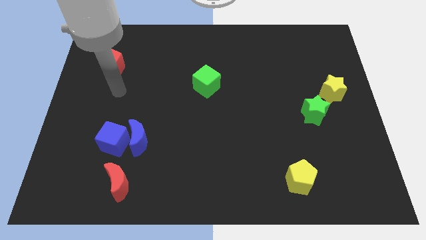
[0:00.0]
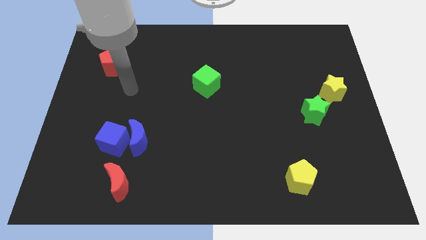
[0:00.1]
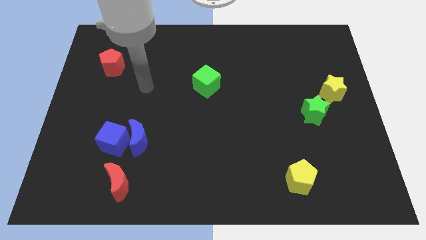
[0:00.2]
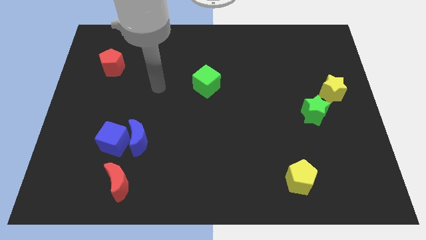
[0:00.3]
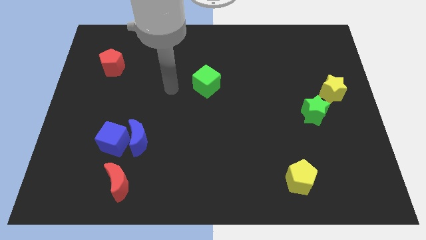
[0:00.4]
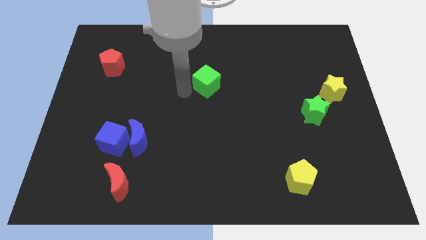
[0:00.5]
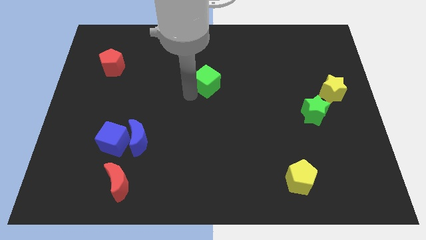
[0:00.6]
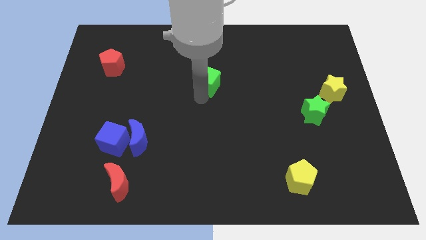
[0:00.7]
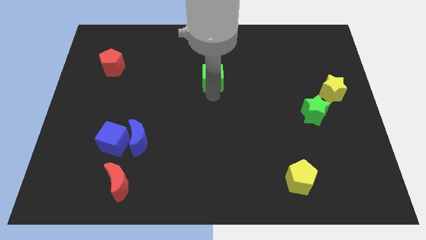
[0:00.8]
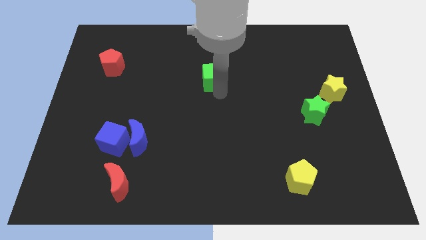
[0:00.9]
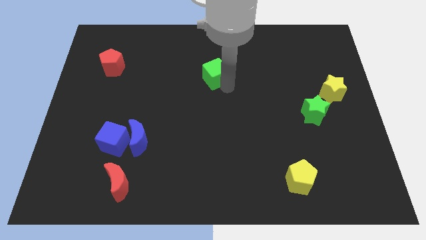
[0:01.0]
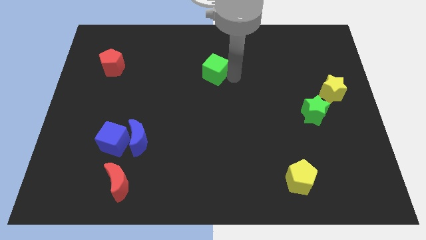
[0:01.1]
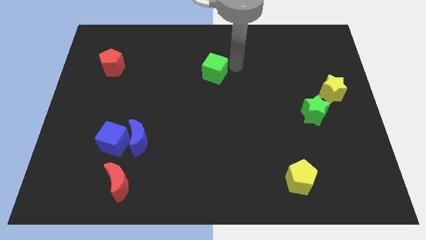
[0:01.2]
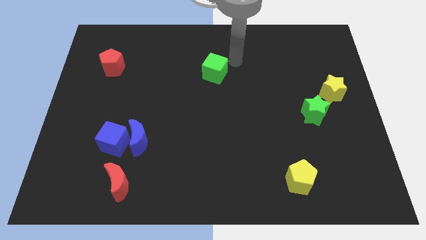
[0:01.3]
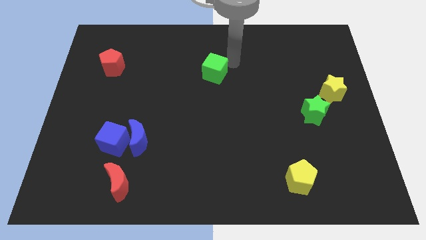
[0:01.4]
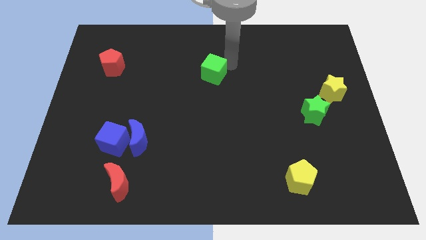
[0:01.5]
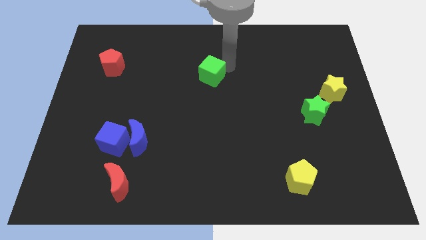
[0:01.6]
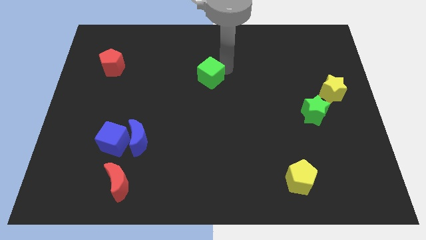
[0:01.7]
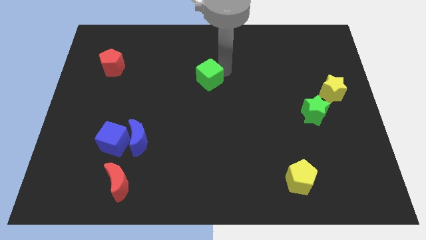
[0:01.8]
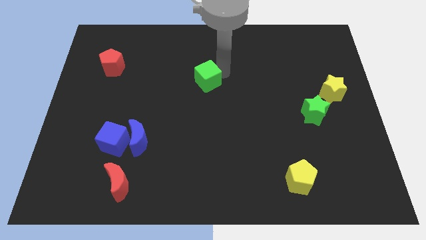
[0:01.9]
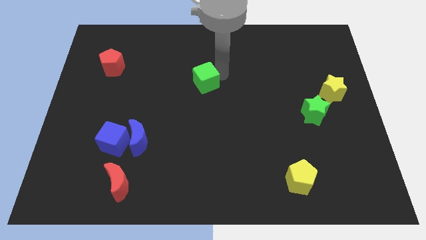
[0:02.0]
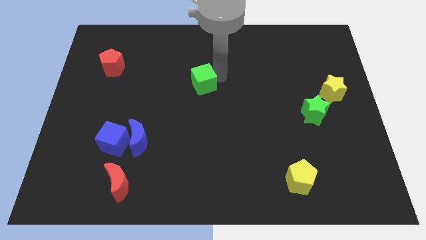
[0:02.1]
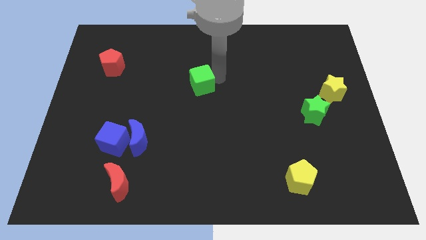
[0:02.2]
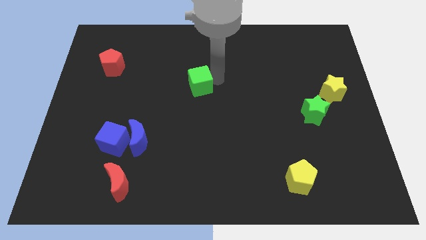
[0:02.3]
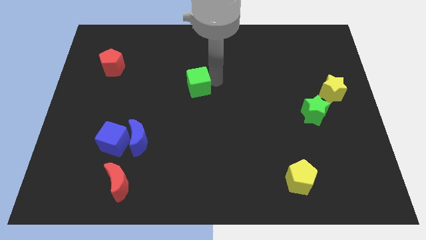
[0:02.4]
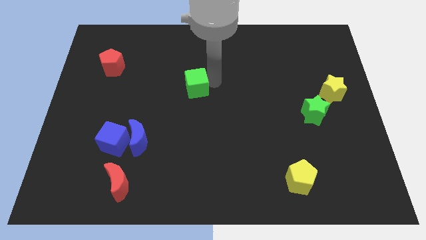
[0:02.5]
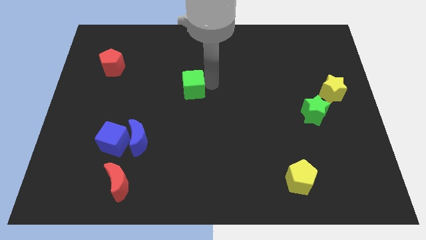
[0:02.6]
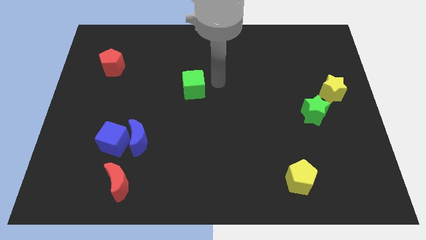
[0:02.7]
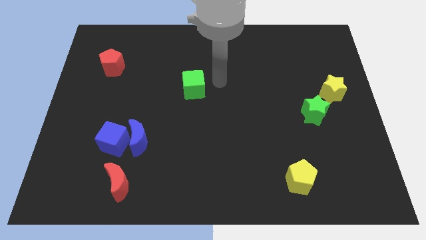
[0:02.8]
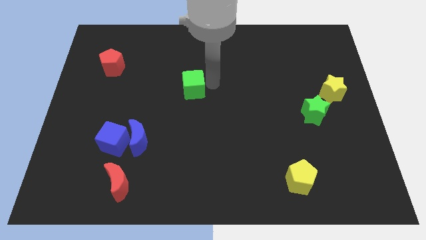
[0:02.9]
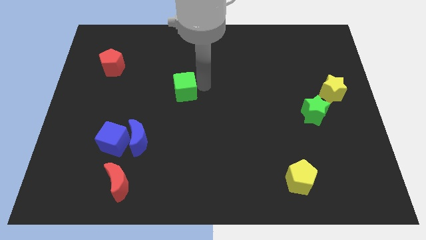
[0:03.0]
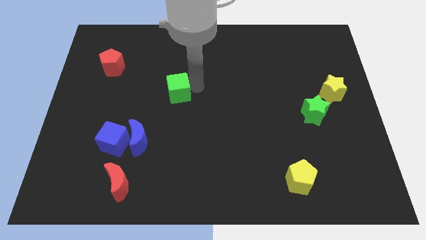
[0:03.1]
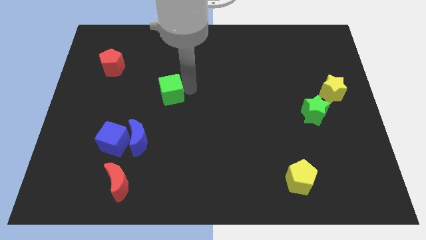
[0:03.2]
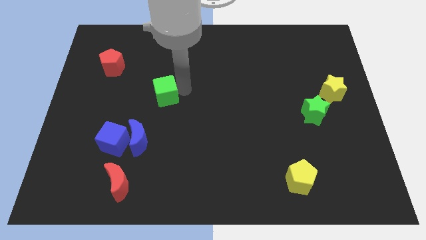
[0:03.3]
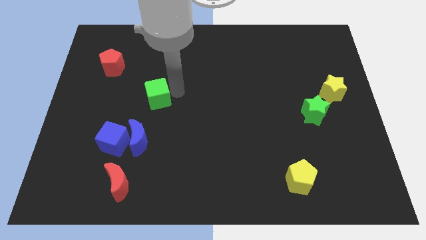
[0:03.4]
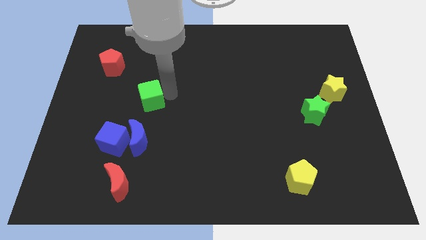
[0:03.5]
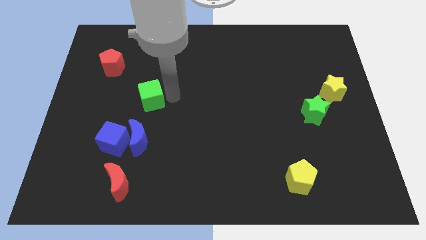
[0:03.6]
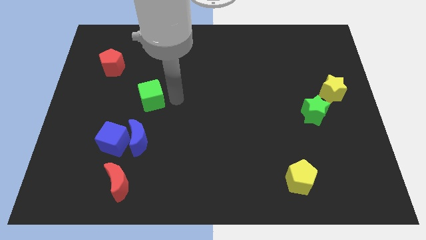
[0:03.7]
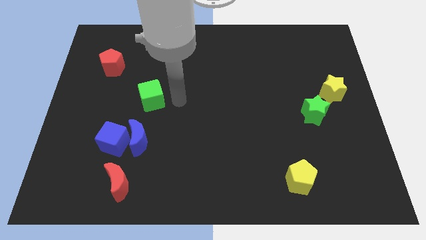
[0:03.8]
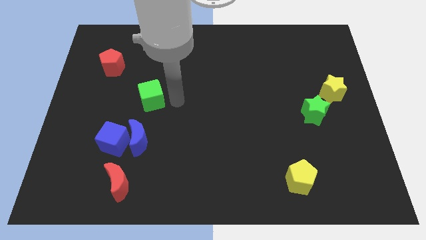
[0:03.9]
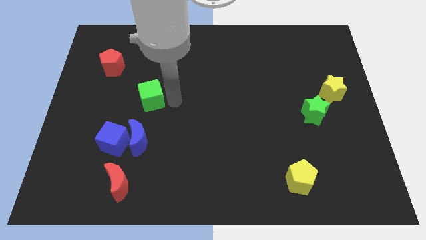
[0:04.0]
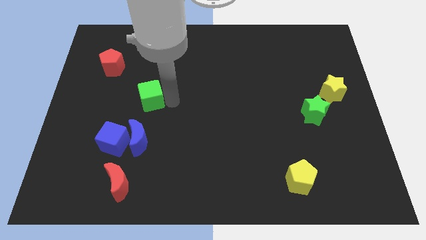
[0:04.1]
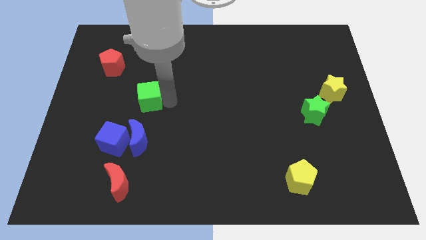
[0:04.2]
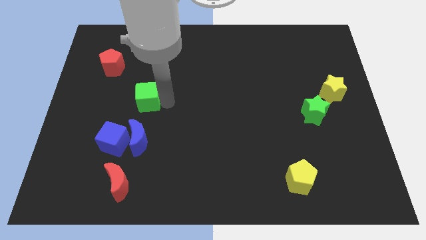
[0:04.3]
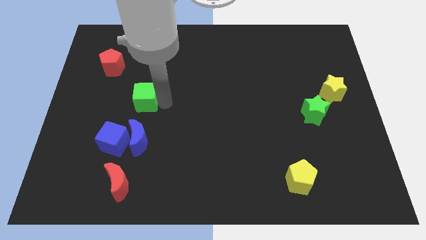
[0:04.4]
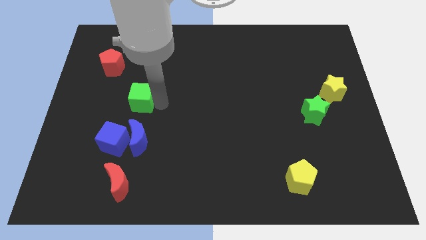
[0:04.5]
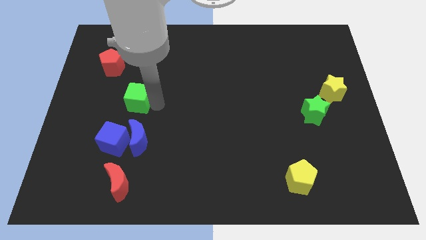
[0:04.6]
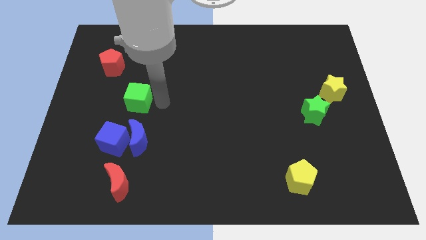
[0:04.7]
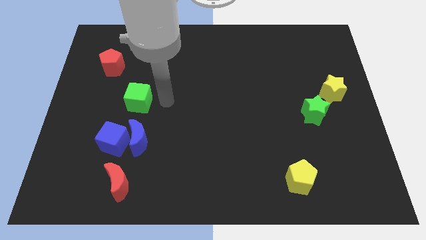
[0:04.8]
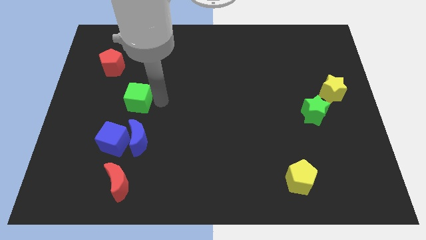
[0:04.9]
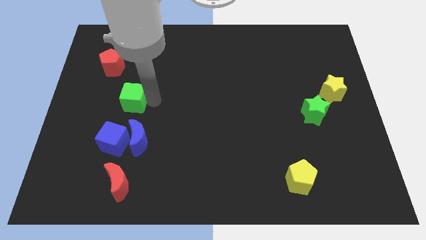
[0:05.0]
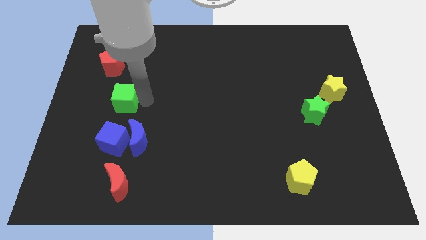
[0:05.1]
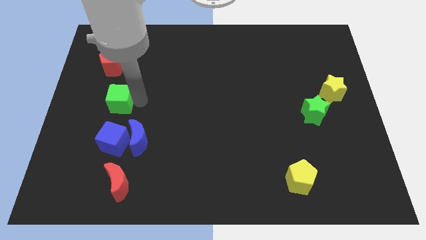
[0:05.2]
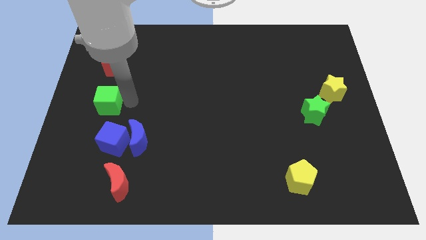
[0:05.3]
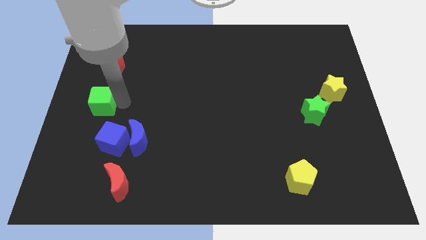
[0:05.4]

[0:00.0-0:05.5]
move the green cube to the left side of the board

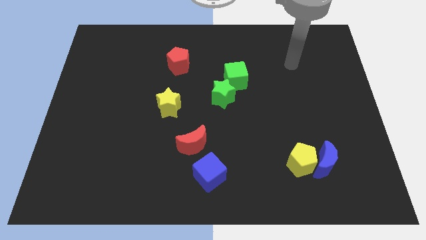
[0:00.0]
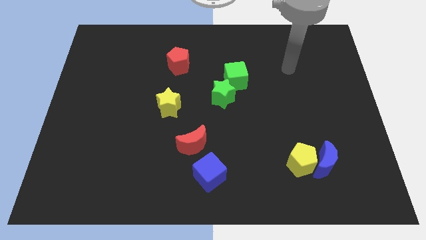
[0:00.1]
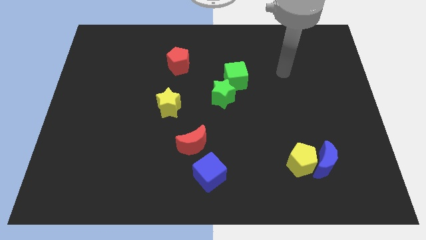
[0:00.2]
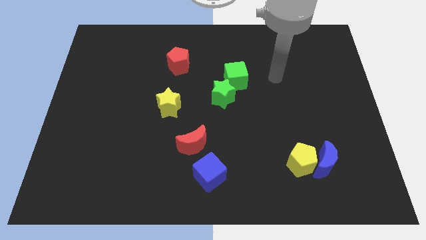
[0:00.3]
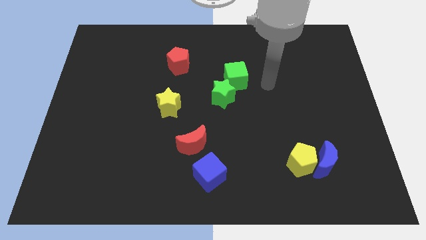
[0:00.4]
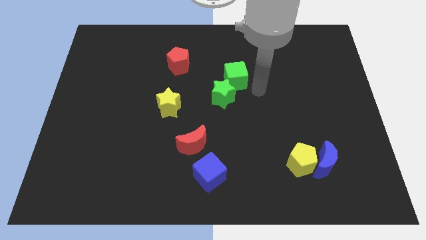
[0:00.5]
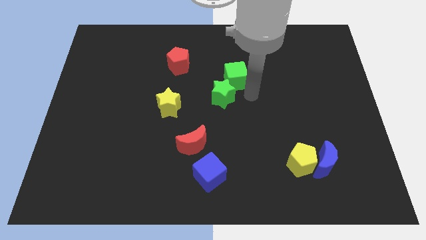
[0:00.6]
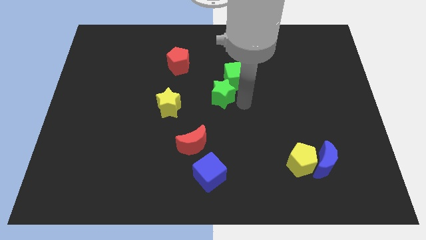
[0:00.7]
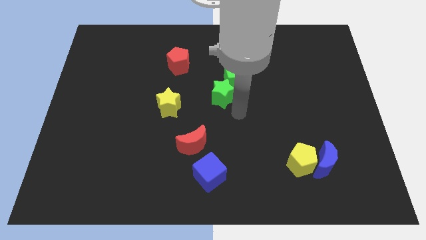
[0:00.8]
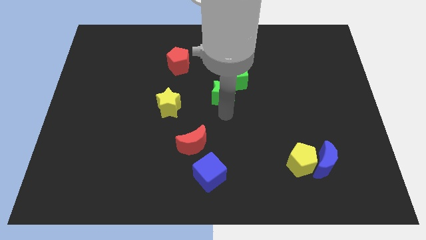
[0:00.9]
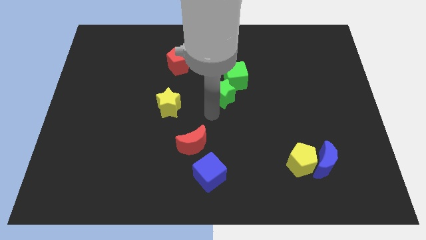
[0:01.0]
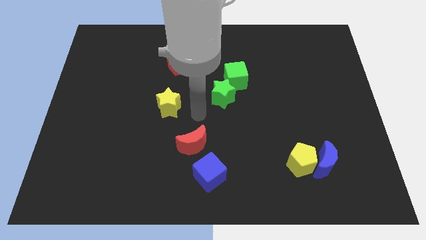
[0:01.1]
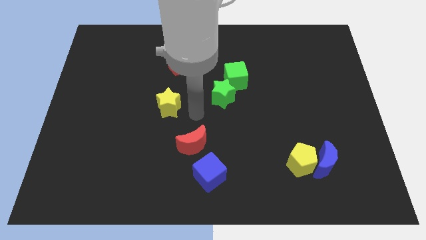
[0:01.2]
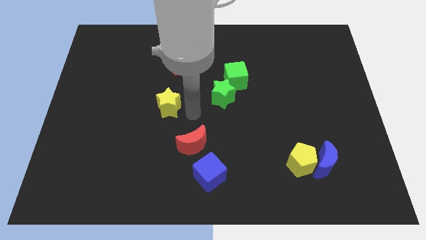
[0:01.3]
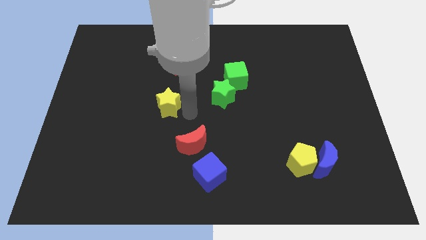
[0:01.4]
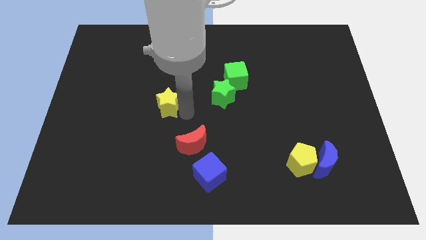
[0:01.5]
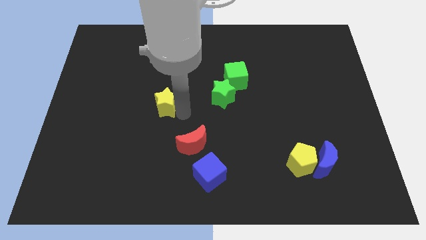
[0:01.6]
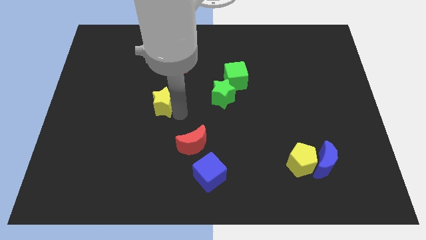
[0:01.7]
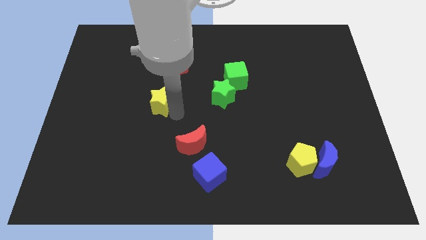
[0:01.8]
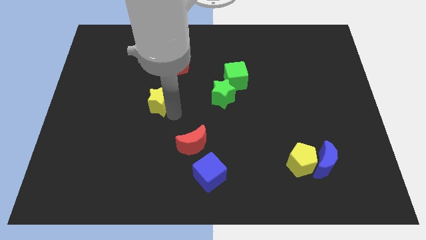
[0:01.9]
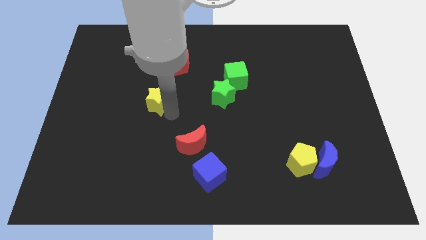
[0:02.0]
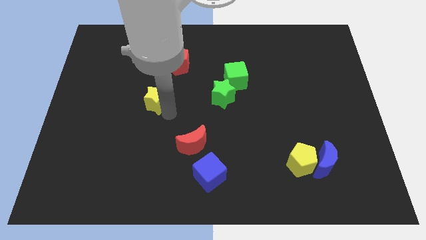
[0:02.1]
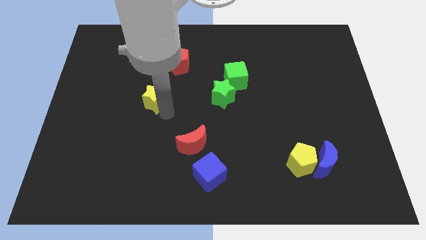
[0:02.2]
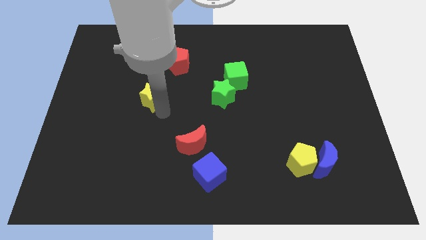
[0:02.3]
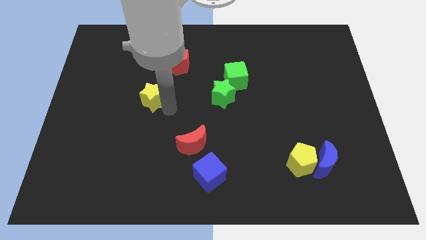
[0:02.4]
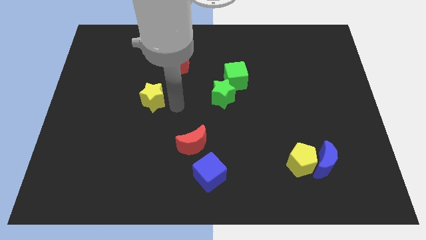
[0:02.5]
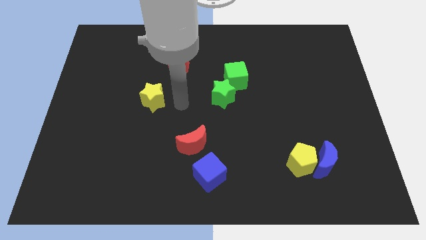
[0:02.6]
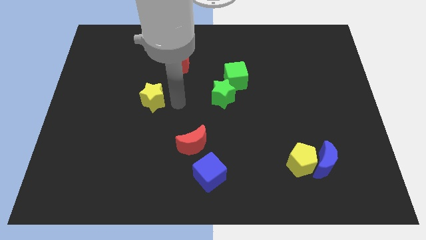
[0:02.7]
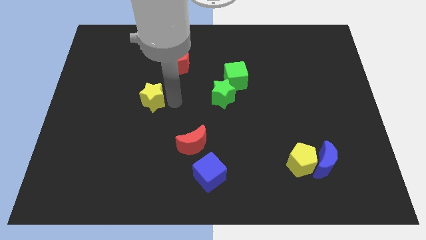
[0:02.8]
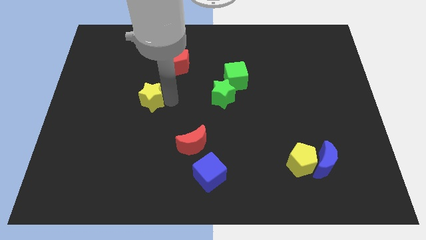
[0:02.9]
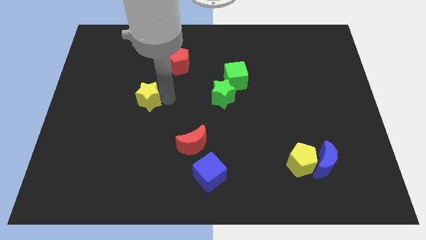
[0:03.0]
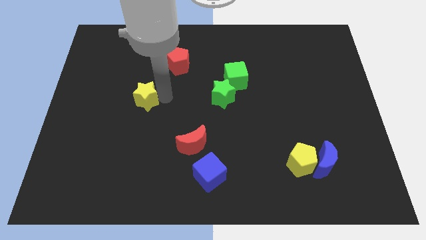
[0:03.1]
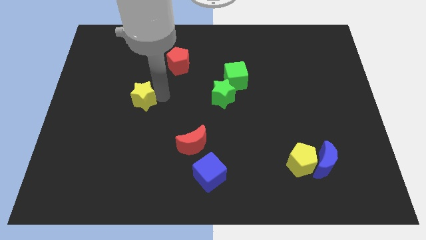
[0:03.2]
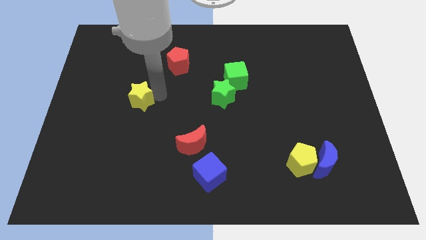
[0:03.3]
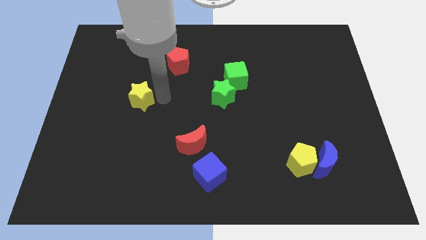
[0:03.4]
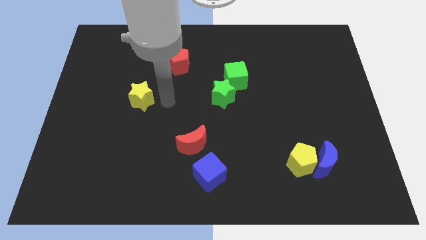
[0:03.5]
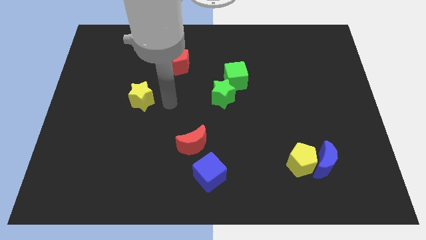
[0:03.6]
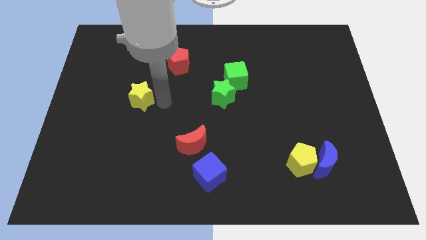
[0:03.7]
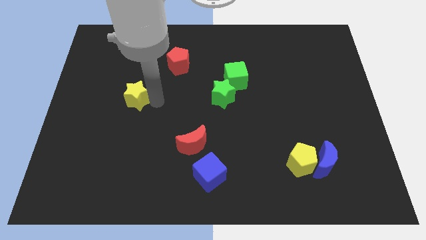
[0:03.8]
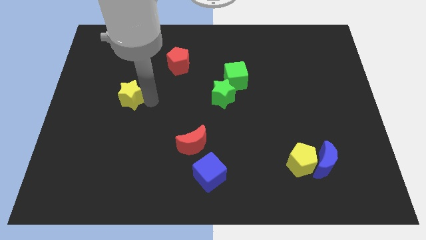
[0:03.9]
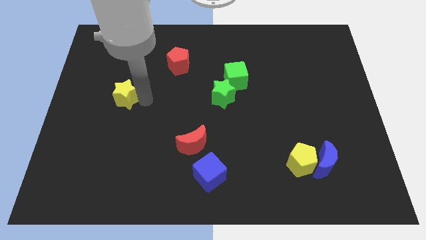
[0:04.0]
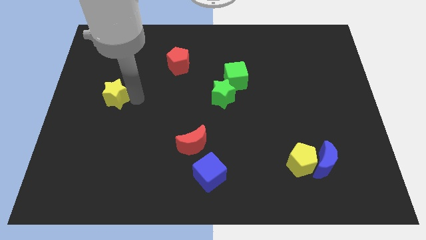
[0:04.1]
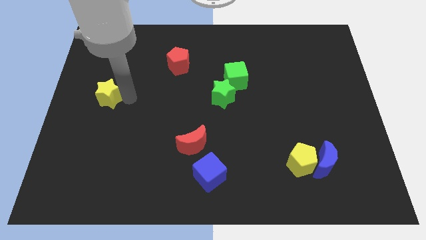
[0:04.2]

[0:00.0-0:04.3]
push the yellow star to the left side of the board
